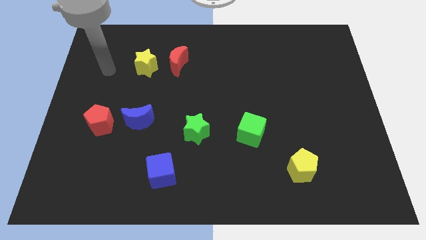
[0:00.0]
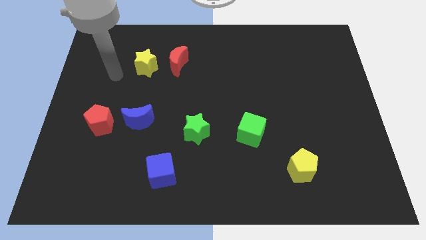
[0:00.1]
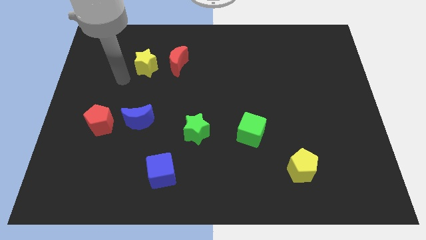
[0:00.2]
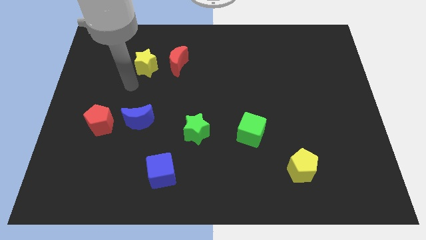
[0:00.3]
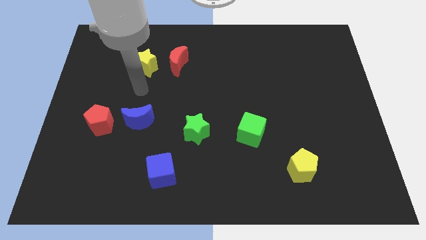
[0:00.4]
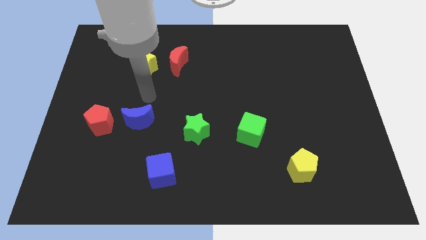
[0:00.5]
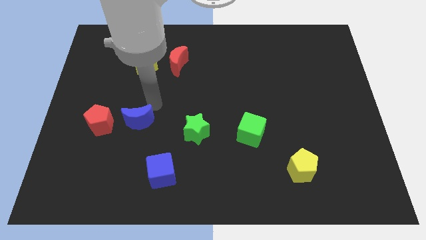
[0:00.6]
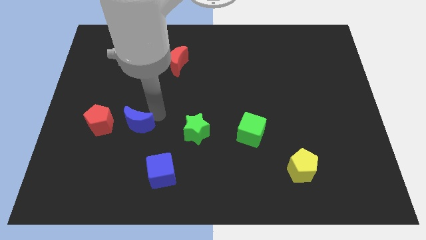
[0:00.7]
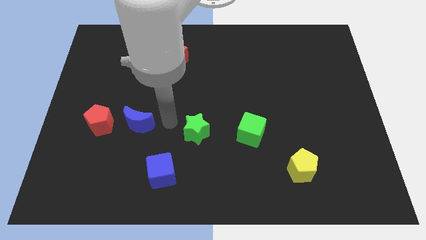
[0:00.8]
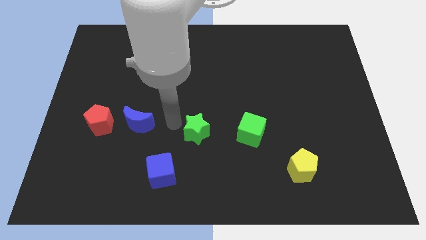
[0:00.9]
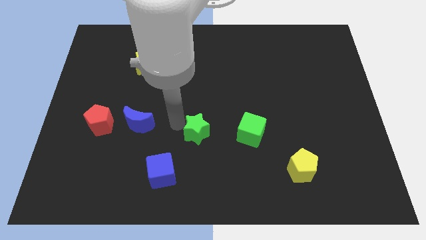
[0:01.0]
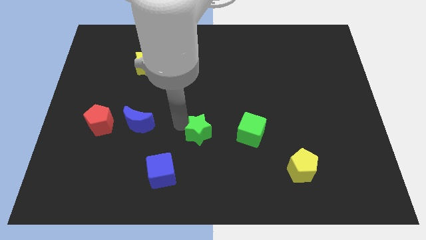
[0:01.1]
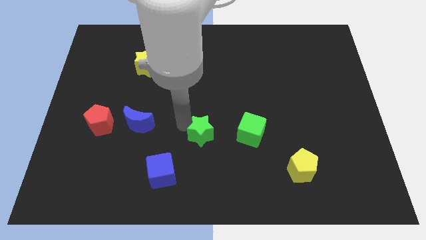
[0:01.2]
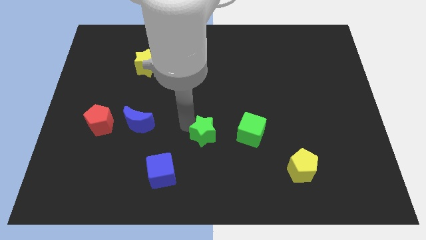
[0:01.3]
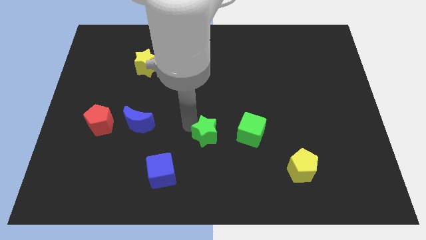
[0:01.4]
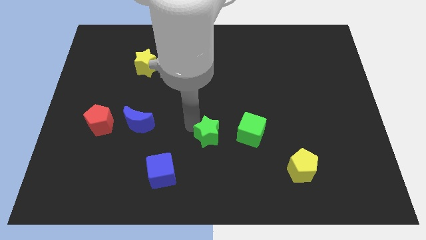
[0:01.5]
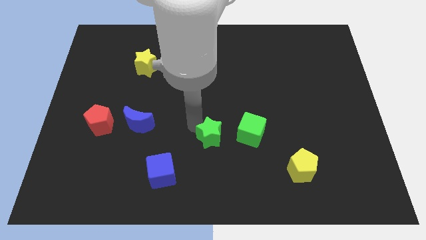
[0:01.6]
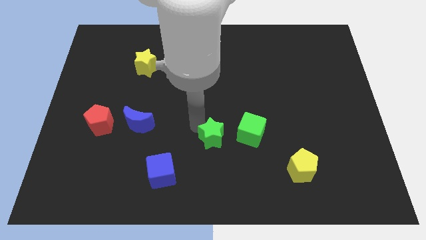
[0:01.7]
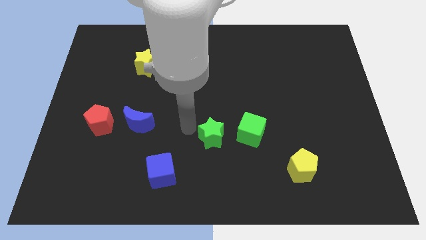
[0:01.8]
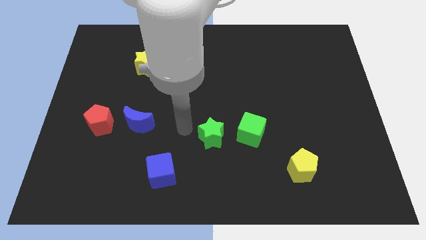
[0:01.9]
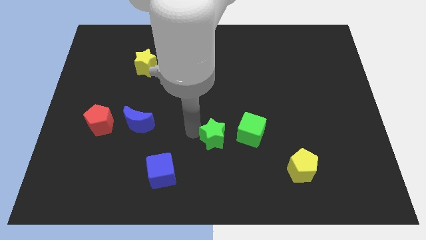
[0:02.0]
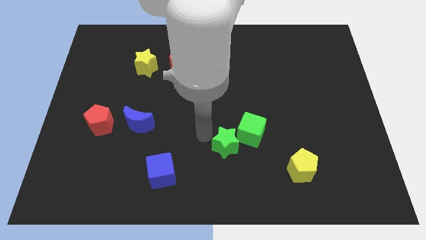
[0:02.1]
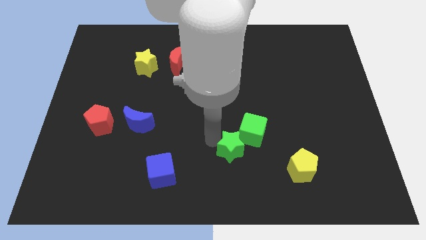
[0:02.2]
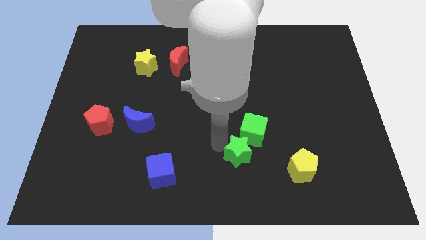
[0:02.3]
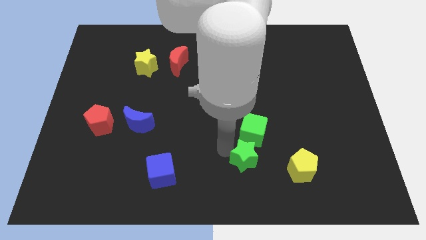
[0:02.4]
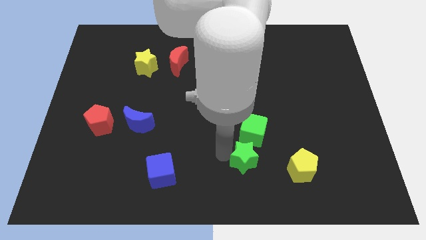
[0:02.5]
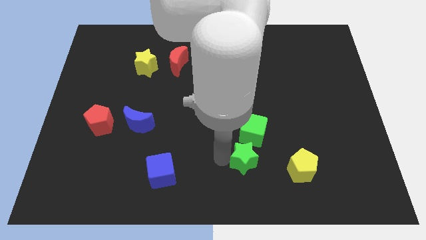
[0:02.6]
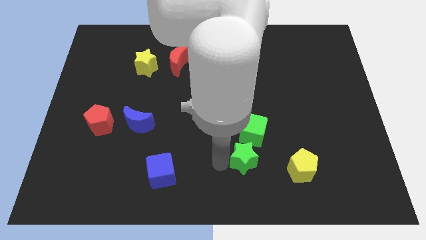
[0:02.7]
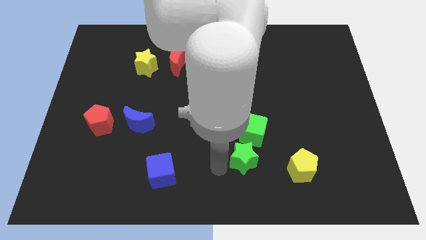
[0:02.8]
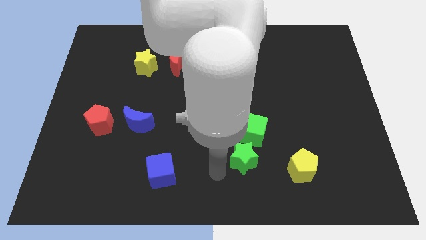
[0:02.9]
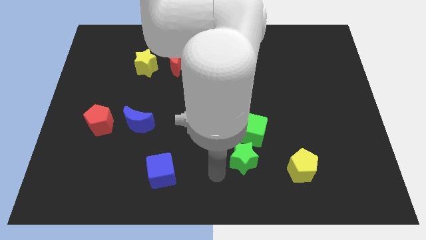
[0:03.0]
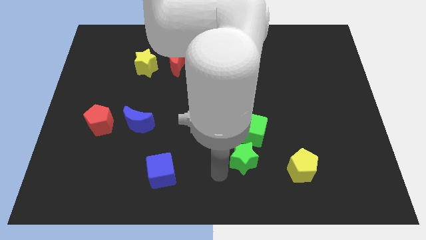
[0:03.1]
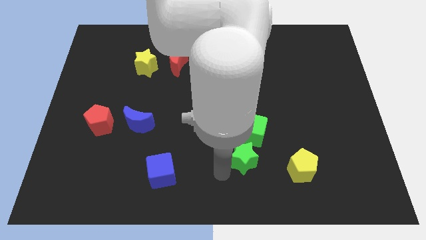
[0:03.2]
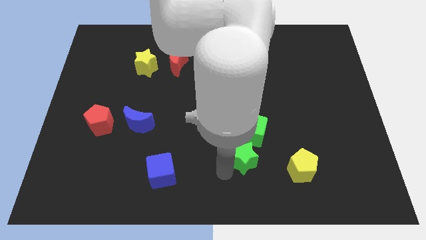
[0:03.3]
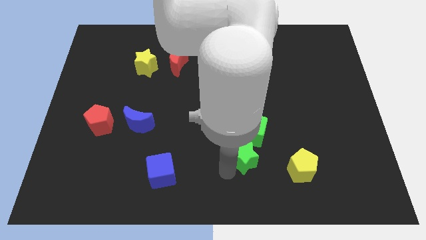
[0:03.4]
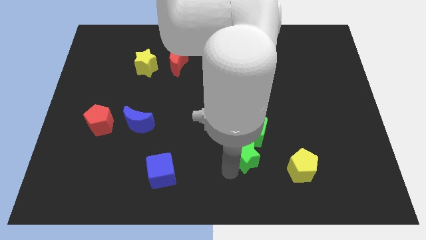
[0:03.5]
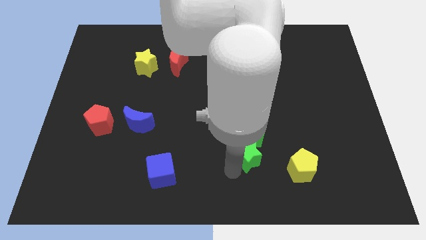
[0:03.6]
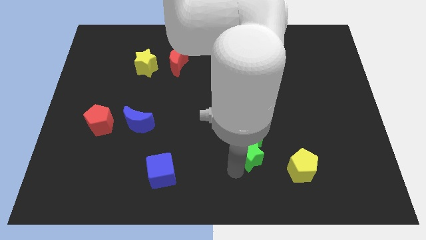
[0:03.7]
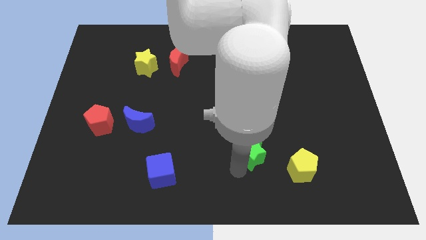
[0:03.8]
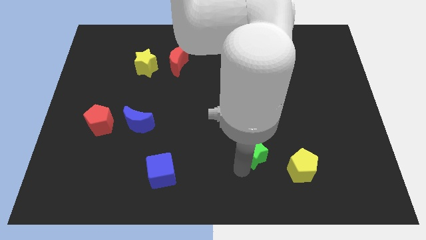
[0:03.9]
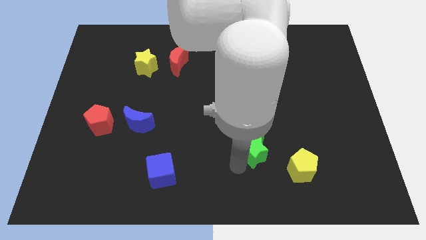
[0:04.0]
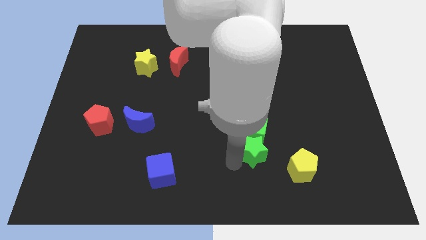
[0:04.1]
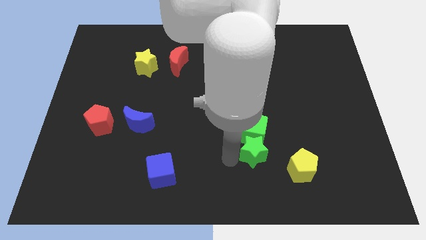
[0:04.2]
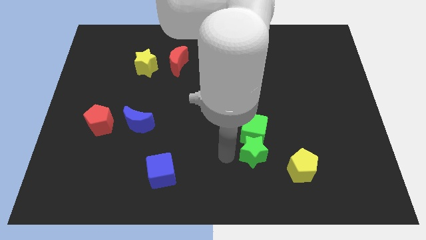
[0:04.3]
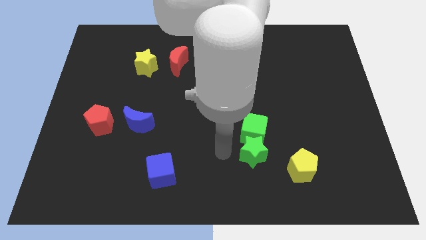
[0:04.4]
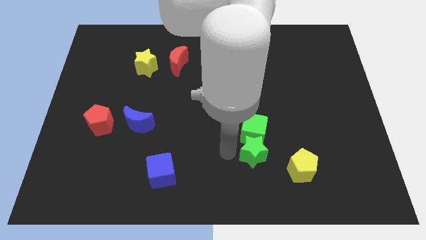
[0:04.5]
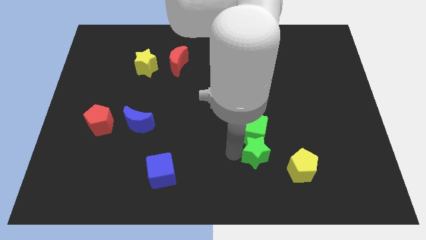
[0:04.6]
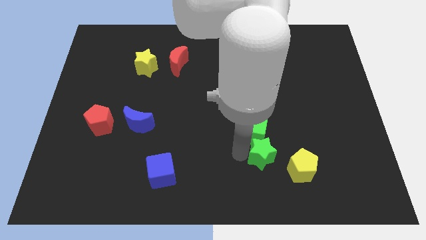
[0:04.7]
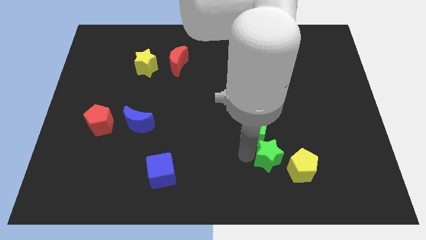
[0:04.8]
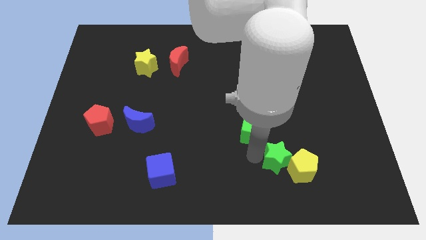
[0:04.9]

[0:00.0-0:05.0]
push the green star next to the yellow pentagon

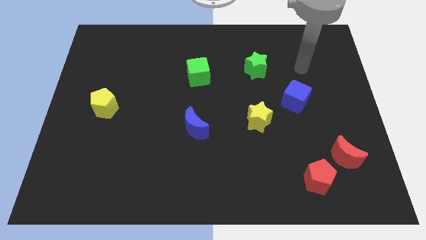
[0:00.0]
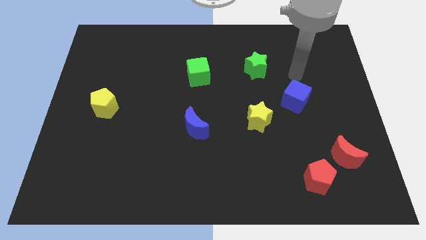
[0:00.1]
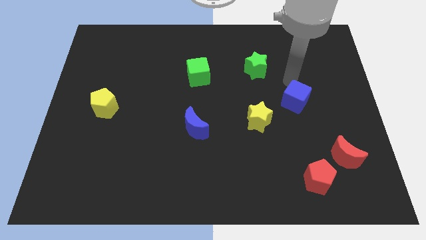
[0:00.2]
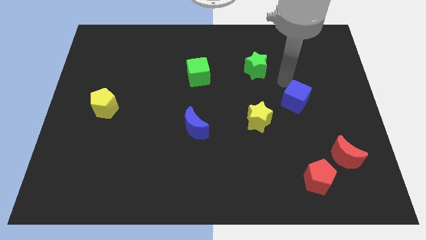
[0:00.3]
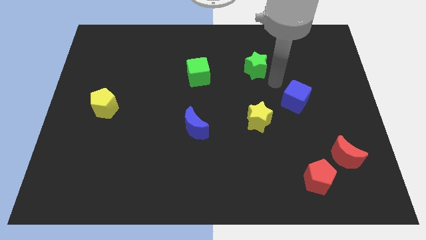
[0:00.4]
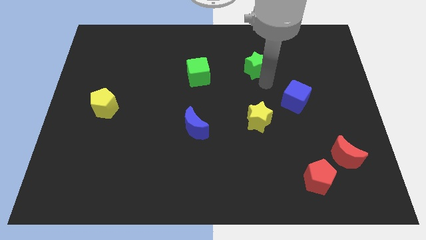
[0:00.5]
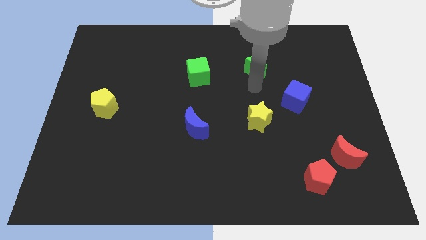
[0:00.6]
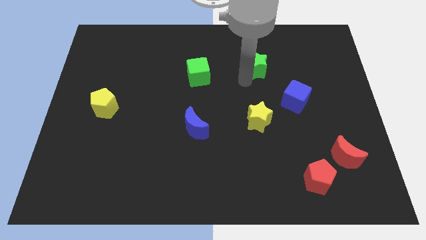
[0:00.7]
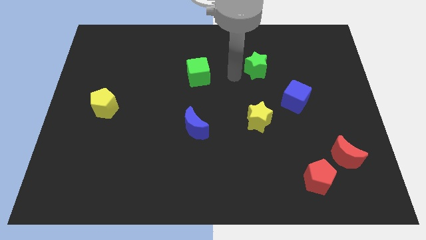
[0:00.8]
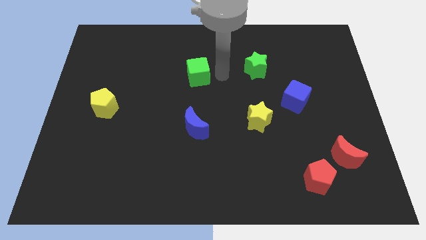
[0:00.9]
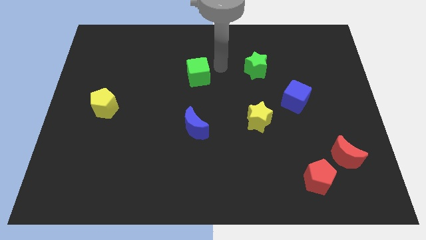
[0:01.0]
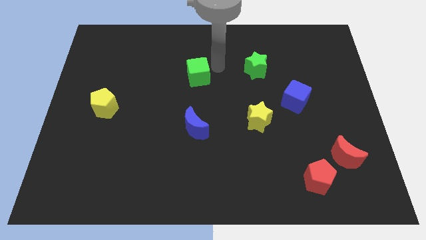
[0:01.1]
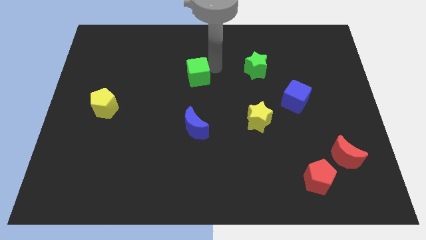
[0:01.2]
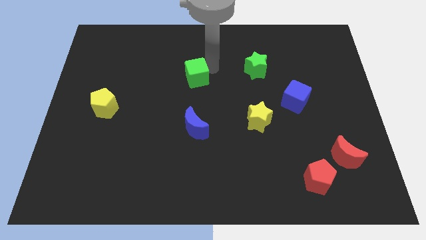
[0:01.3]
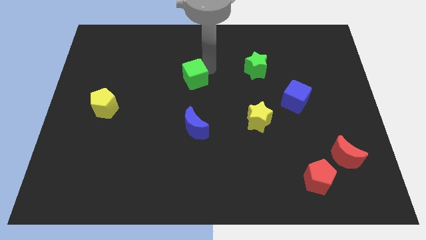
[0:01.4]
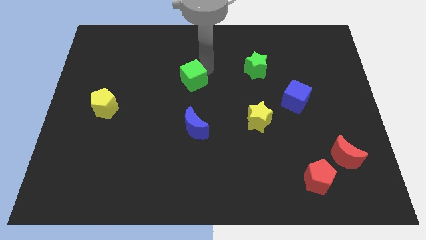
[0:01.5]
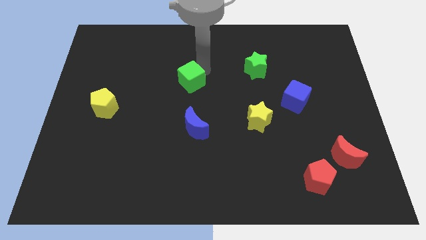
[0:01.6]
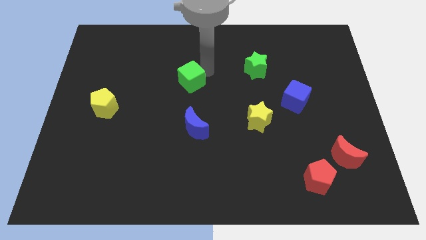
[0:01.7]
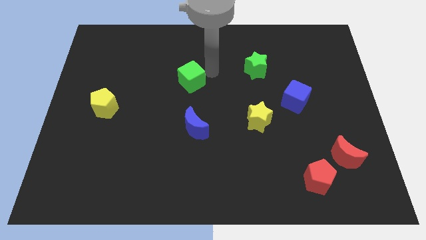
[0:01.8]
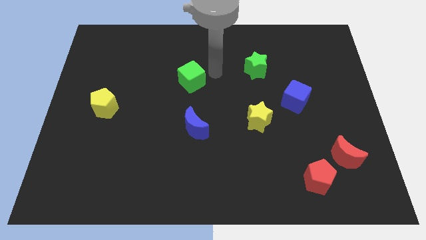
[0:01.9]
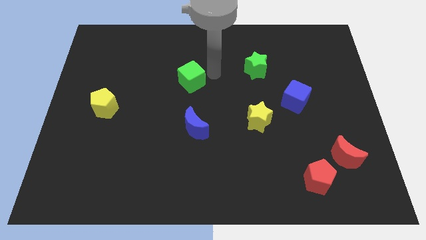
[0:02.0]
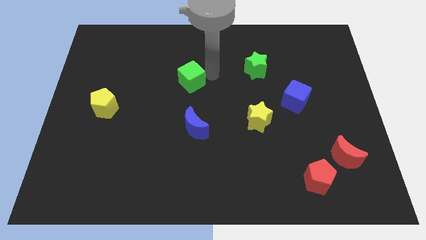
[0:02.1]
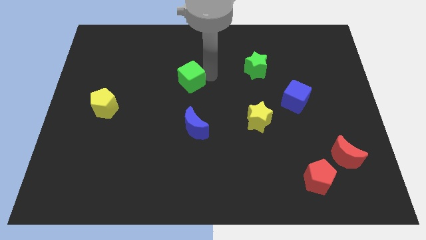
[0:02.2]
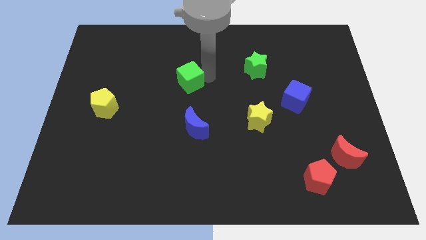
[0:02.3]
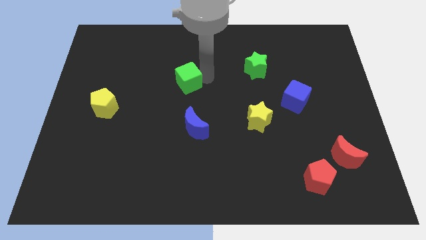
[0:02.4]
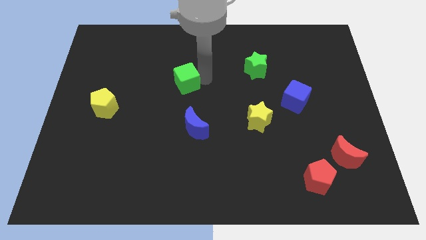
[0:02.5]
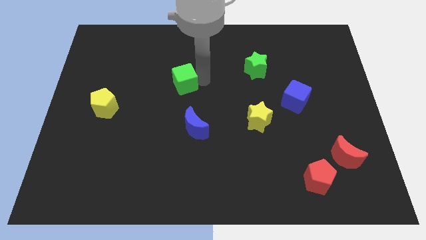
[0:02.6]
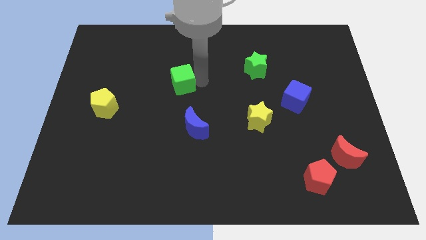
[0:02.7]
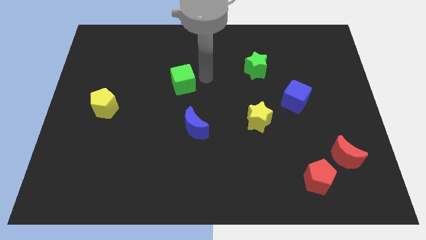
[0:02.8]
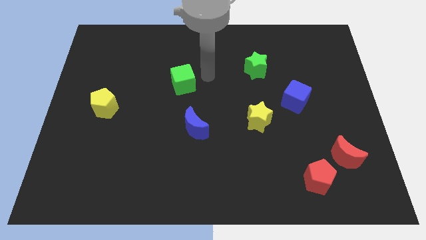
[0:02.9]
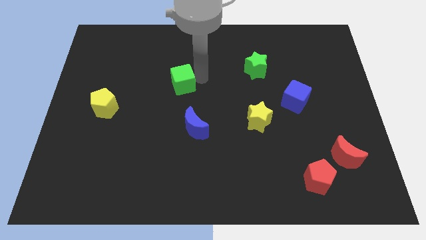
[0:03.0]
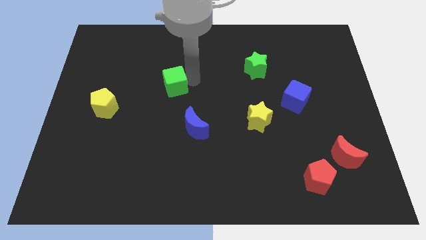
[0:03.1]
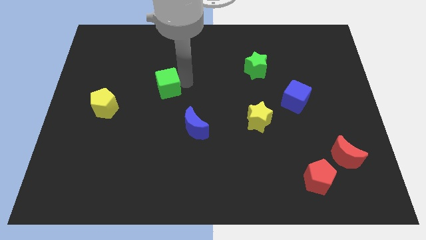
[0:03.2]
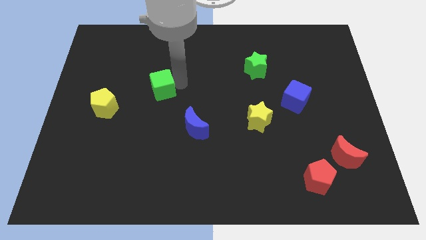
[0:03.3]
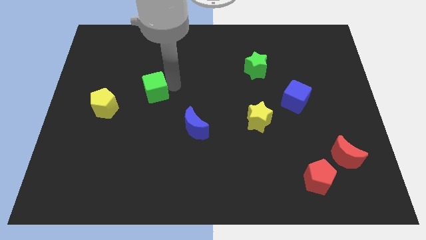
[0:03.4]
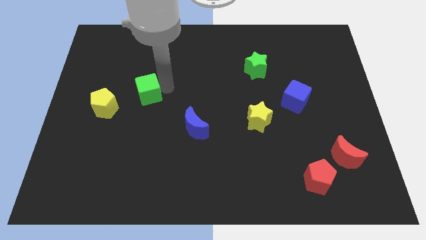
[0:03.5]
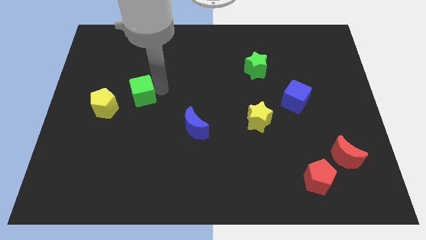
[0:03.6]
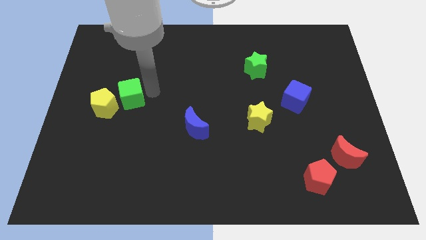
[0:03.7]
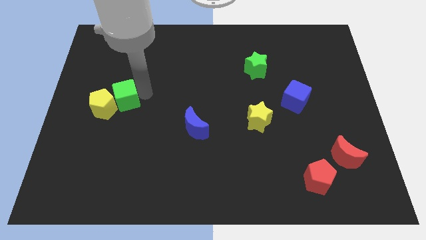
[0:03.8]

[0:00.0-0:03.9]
put the green cube next to the yellow pentagon
